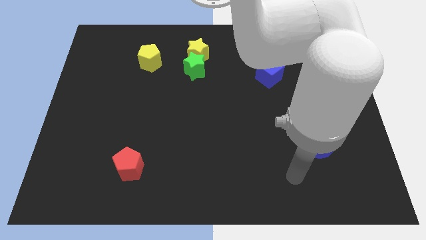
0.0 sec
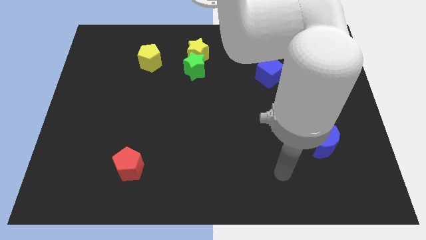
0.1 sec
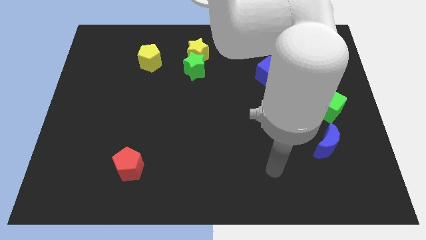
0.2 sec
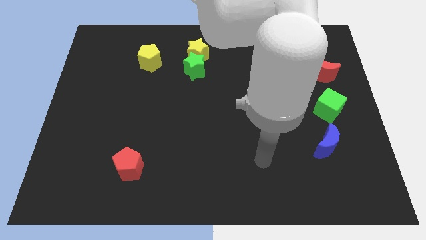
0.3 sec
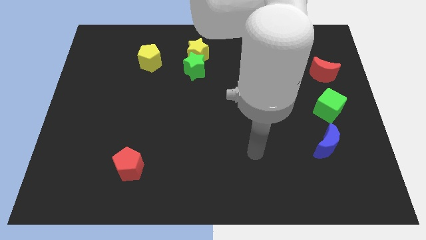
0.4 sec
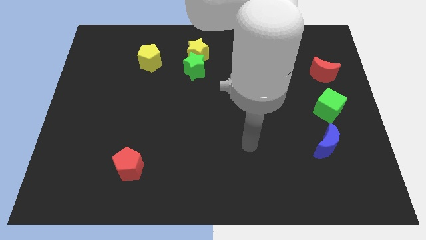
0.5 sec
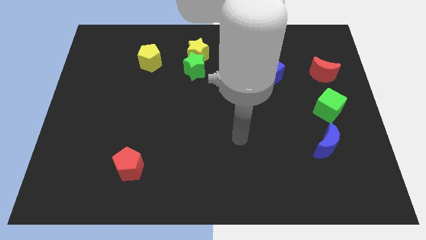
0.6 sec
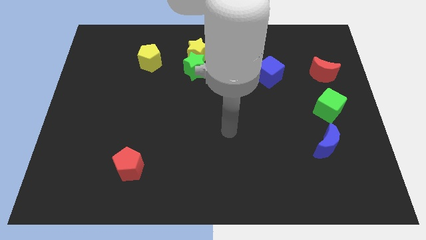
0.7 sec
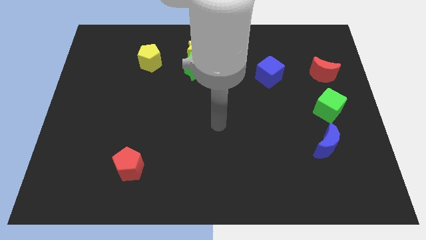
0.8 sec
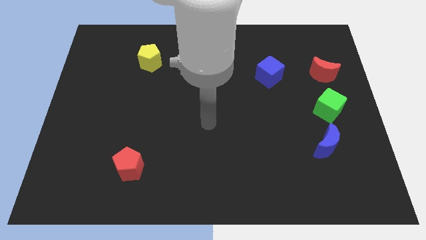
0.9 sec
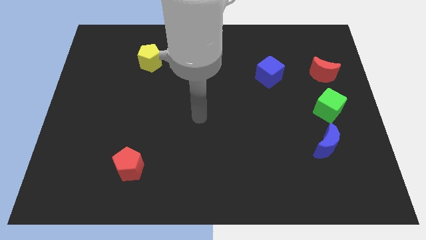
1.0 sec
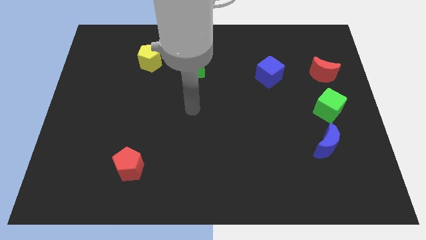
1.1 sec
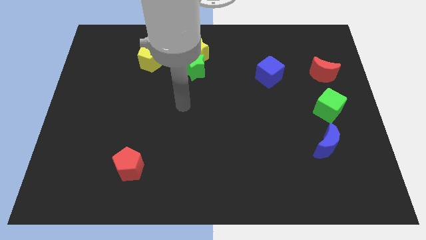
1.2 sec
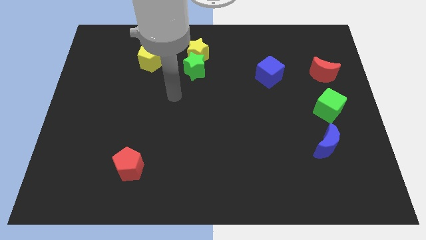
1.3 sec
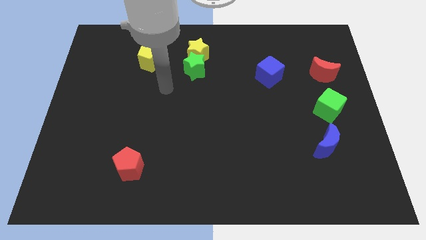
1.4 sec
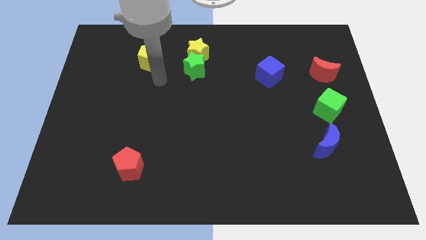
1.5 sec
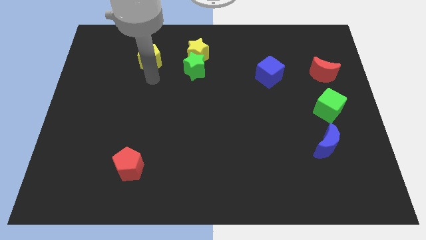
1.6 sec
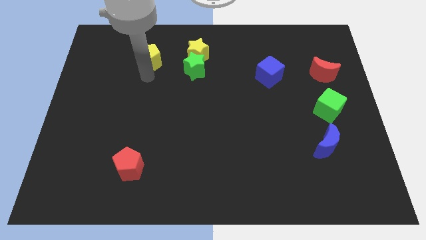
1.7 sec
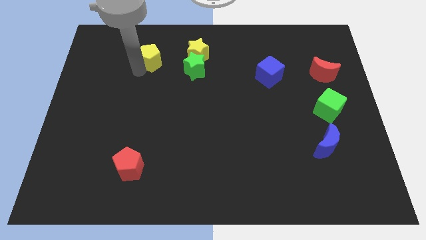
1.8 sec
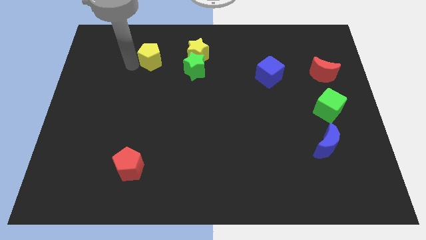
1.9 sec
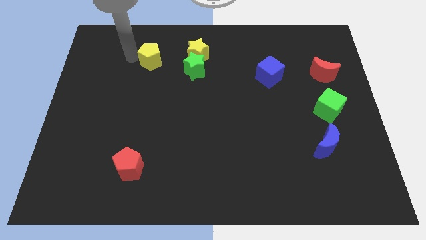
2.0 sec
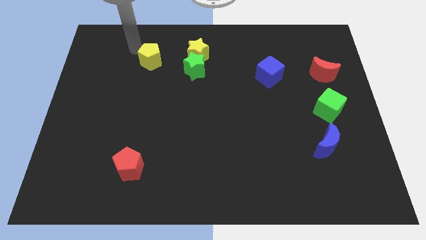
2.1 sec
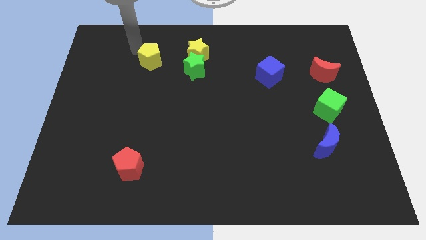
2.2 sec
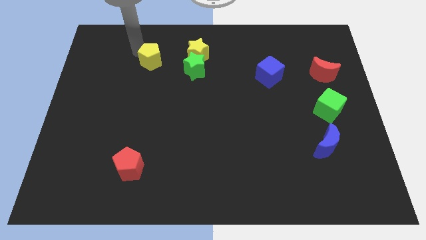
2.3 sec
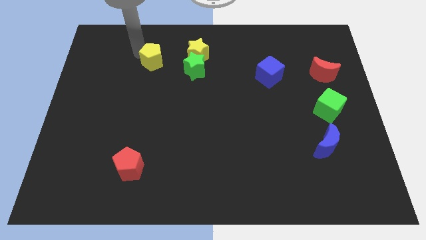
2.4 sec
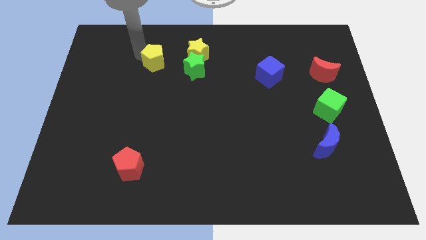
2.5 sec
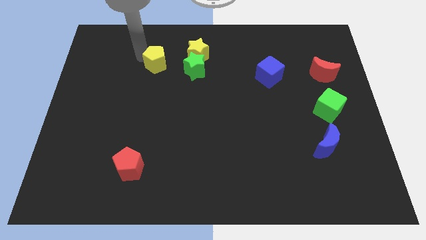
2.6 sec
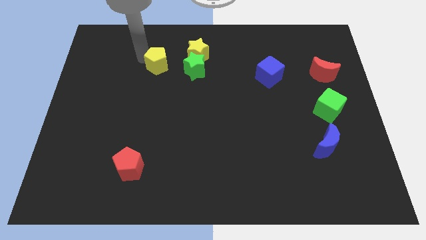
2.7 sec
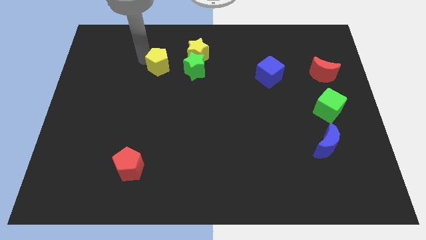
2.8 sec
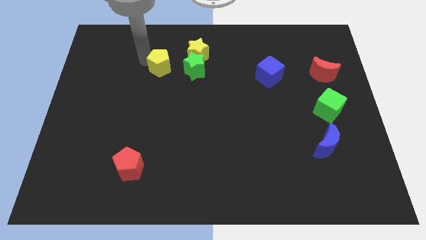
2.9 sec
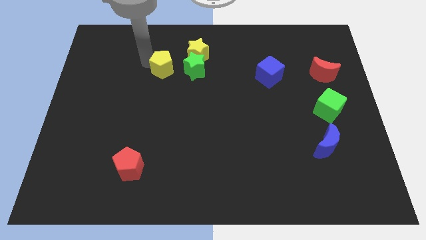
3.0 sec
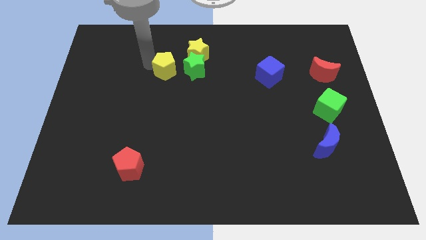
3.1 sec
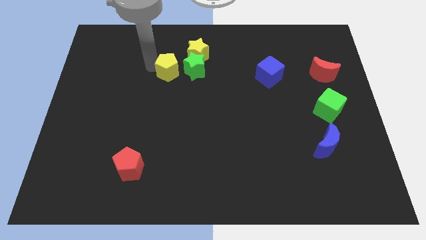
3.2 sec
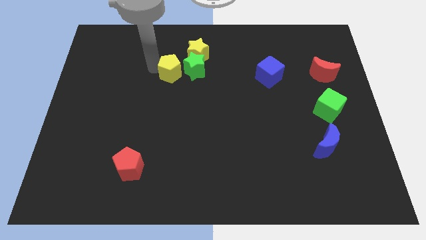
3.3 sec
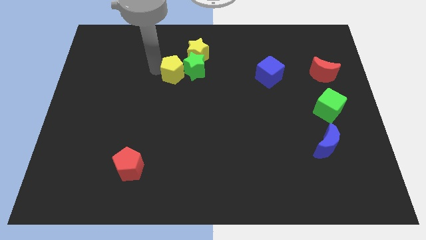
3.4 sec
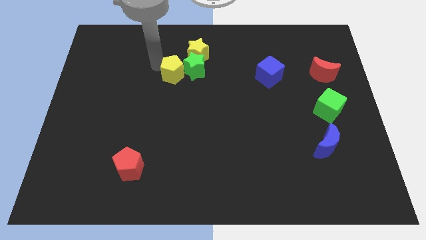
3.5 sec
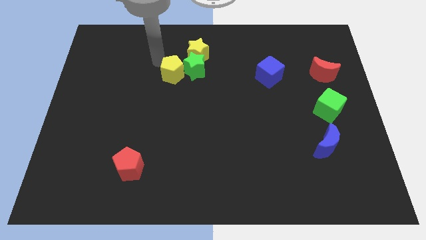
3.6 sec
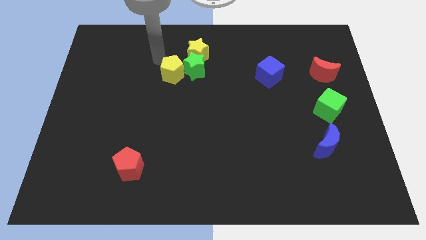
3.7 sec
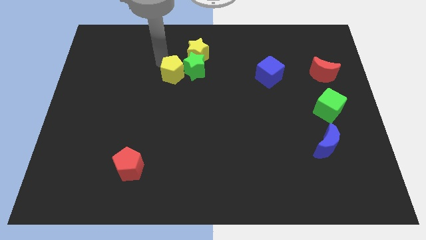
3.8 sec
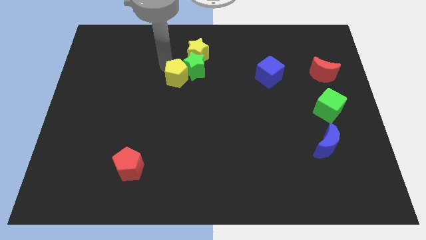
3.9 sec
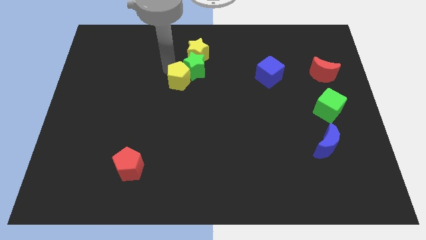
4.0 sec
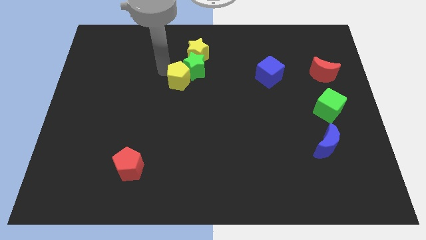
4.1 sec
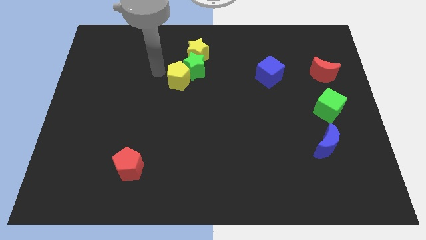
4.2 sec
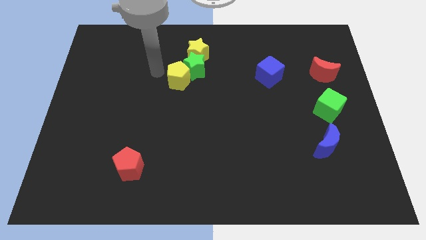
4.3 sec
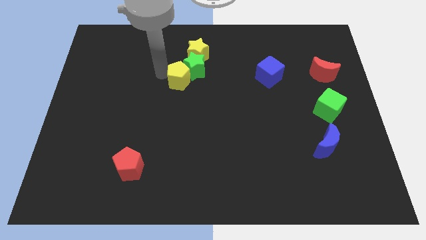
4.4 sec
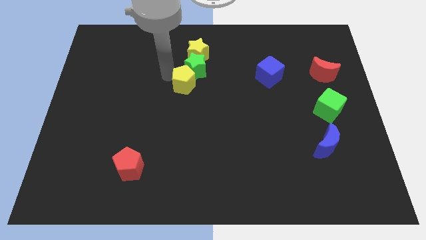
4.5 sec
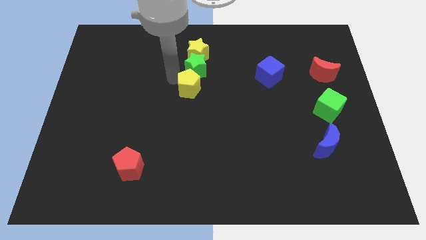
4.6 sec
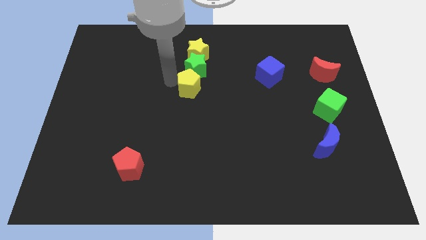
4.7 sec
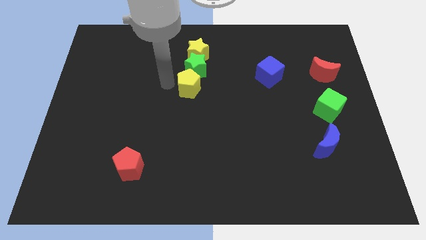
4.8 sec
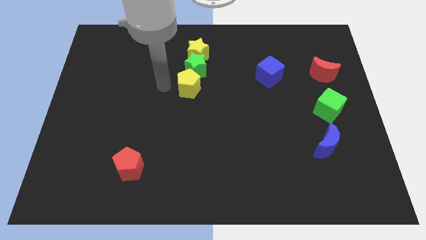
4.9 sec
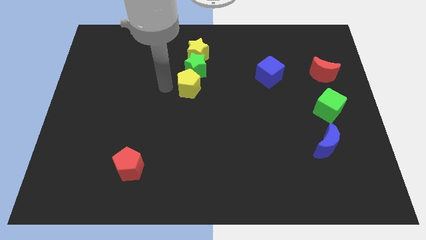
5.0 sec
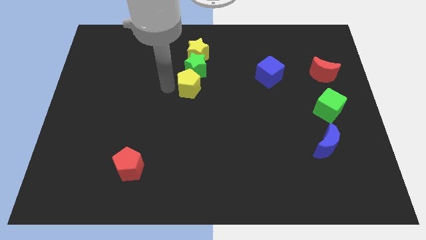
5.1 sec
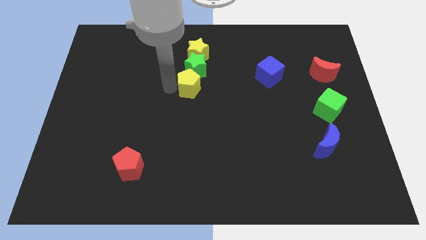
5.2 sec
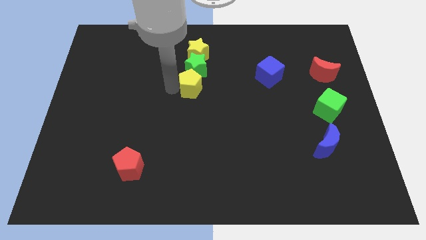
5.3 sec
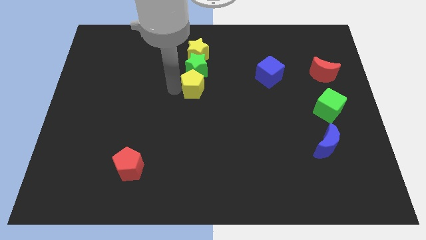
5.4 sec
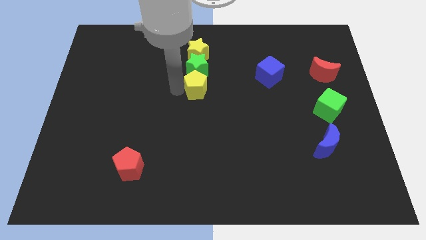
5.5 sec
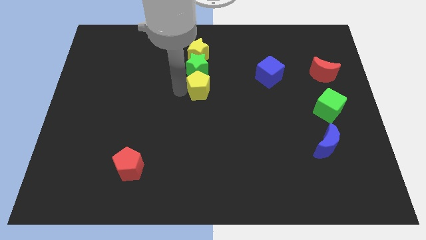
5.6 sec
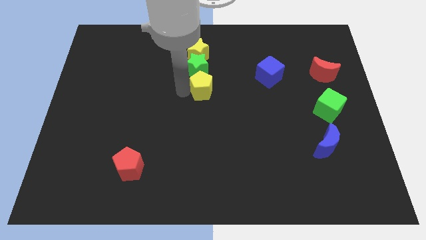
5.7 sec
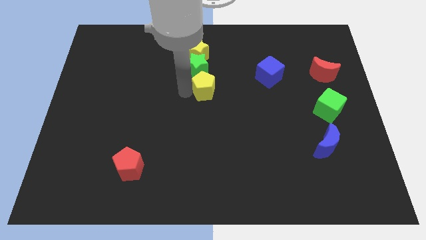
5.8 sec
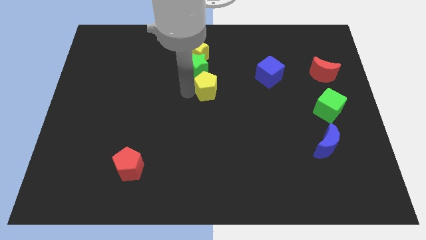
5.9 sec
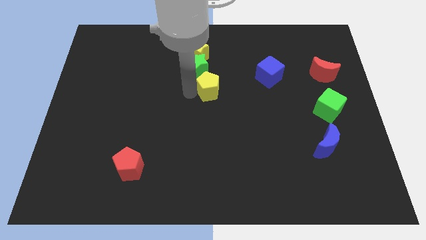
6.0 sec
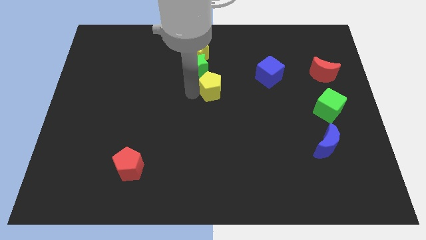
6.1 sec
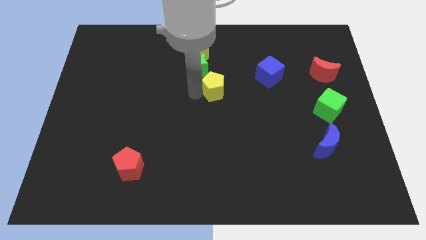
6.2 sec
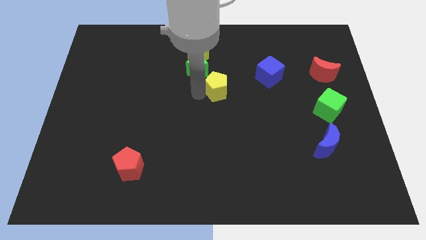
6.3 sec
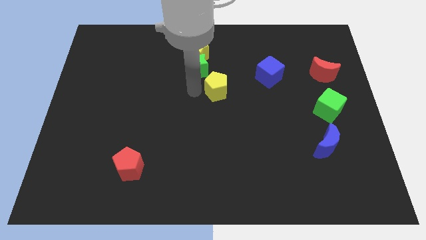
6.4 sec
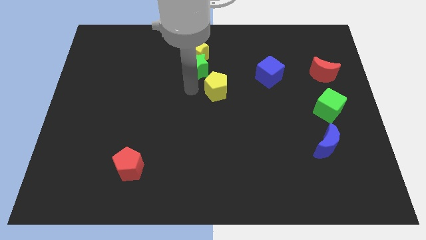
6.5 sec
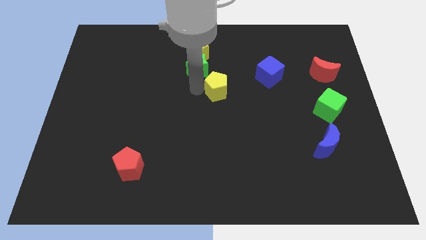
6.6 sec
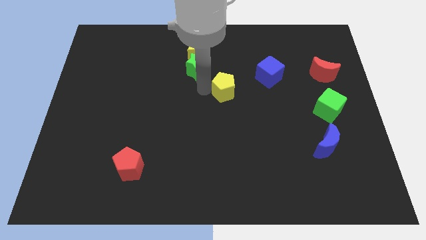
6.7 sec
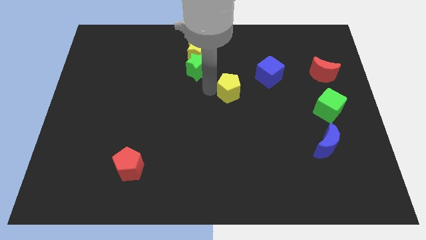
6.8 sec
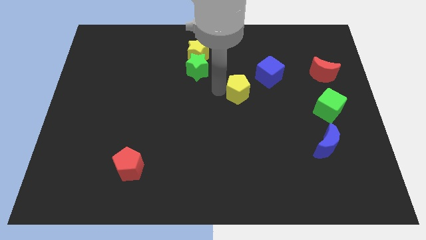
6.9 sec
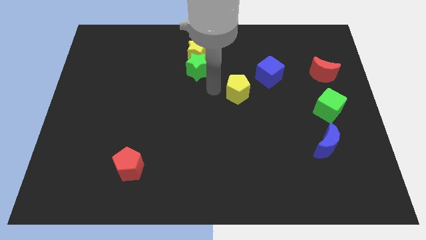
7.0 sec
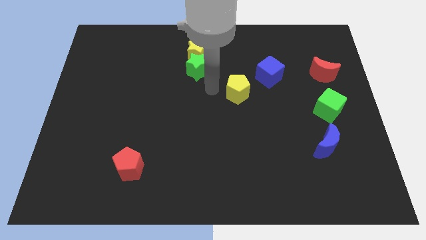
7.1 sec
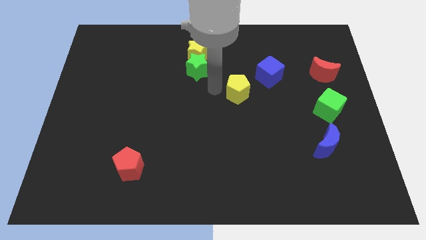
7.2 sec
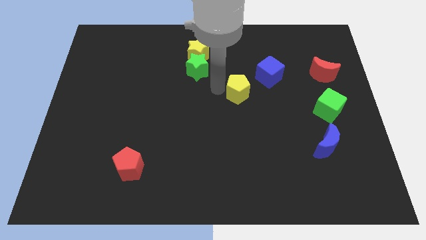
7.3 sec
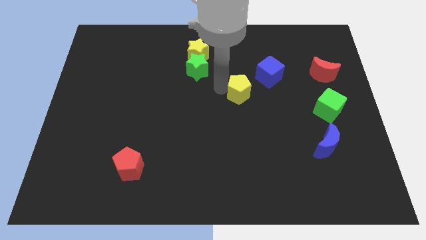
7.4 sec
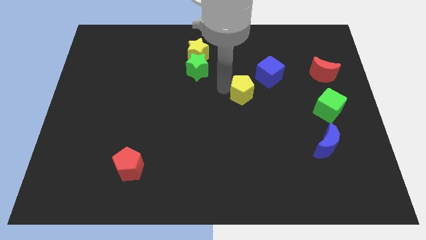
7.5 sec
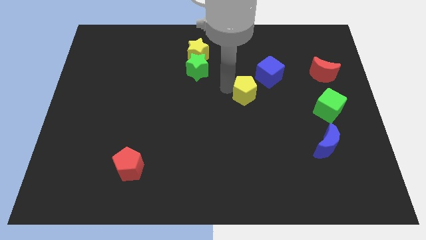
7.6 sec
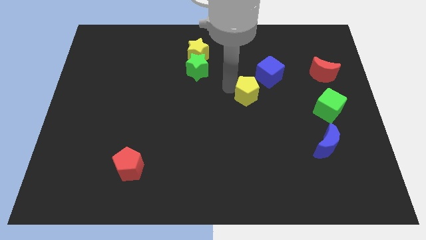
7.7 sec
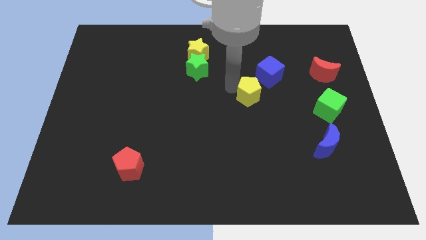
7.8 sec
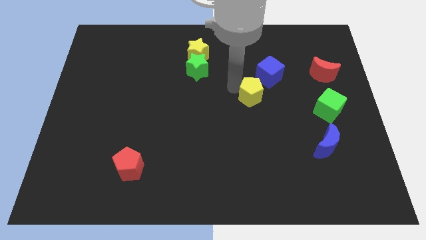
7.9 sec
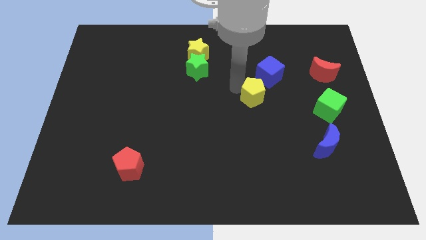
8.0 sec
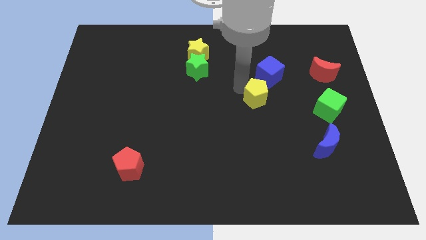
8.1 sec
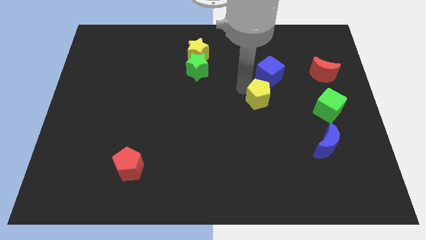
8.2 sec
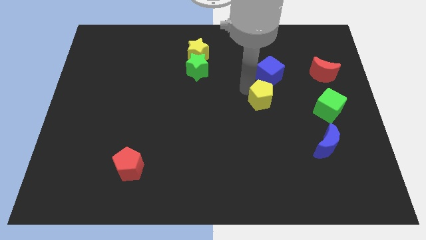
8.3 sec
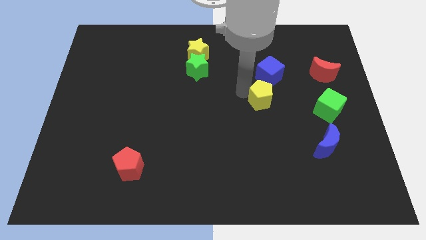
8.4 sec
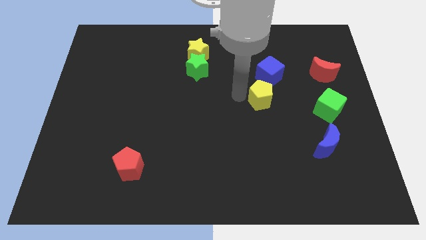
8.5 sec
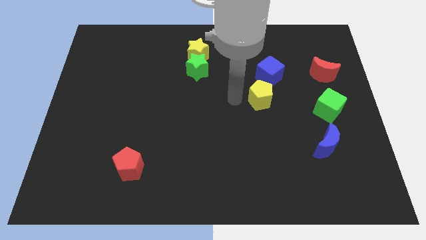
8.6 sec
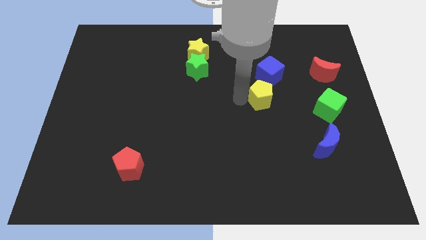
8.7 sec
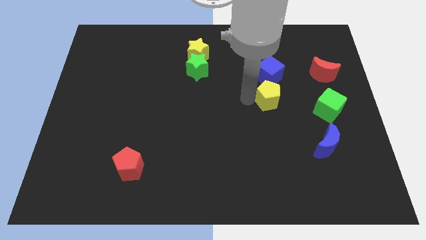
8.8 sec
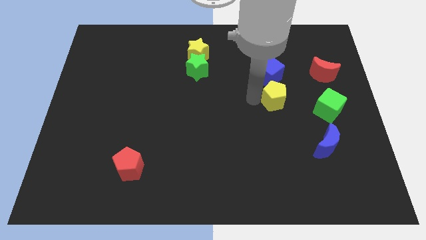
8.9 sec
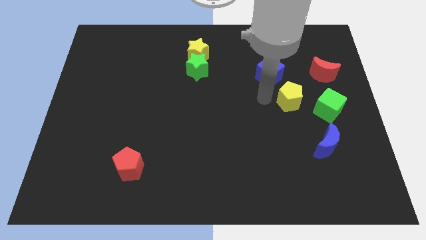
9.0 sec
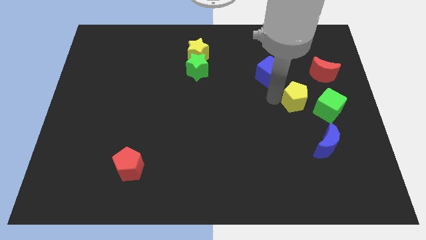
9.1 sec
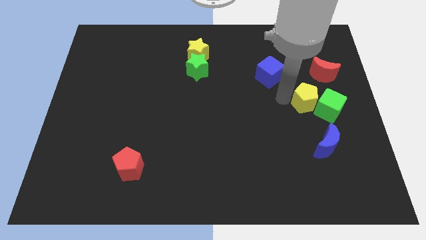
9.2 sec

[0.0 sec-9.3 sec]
put the yellow pentagon towards the green cube
